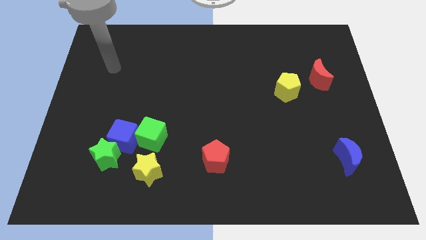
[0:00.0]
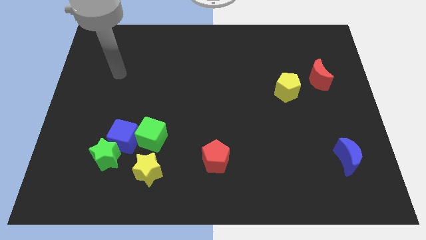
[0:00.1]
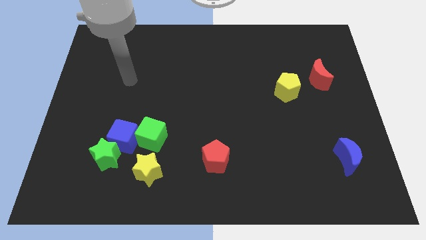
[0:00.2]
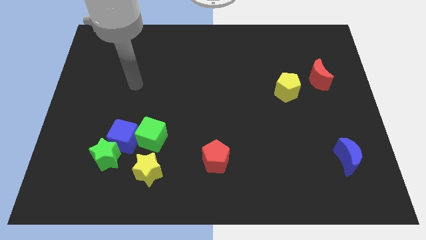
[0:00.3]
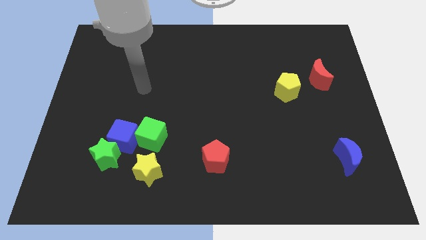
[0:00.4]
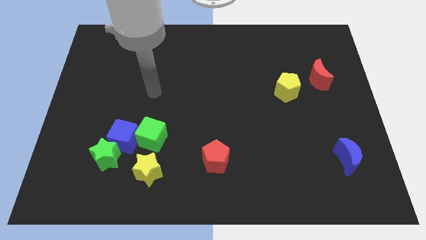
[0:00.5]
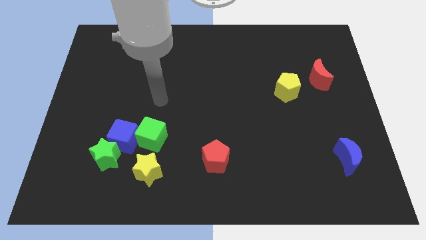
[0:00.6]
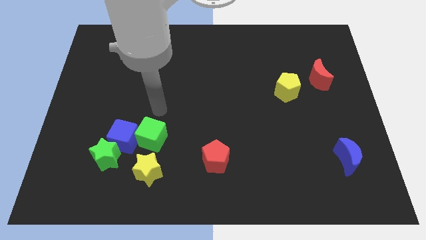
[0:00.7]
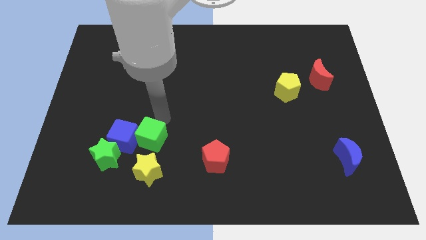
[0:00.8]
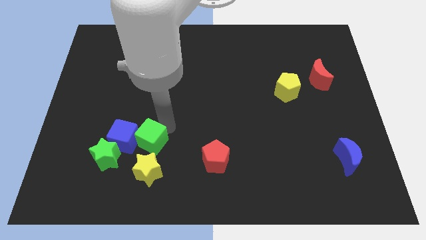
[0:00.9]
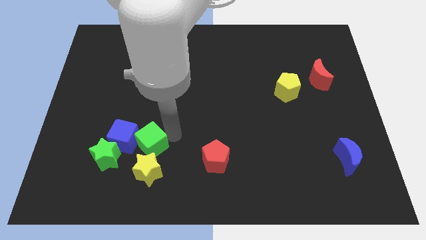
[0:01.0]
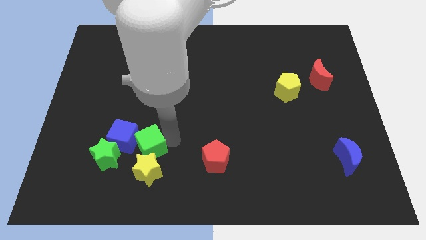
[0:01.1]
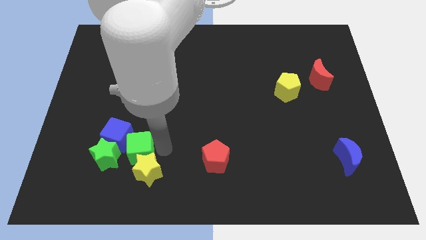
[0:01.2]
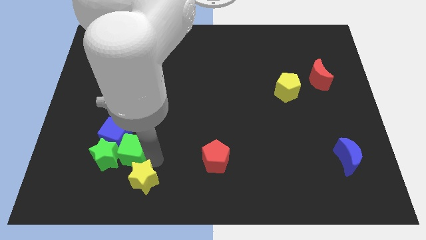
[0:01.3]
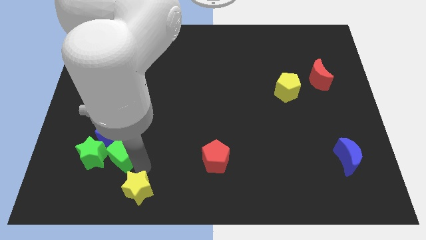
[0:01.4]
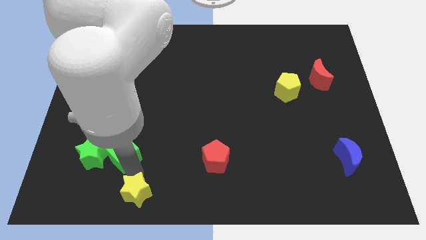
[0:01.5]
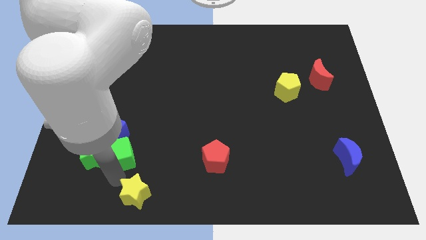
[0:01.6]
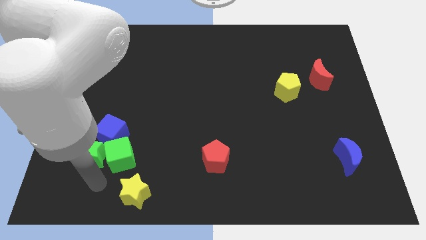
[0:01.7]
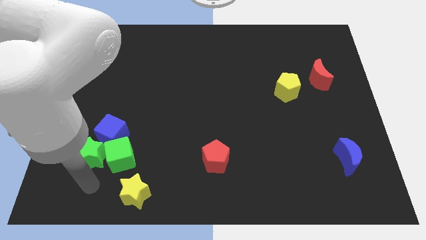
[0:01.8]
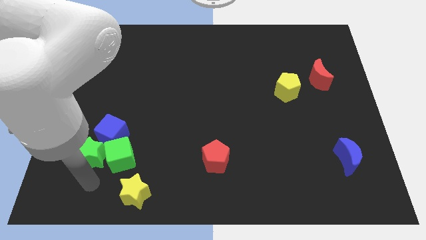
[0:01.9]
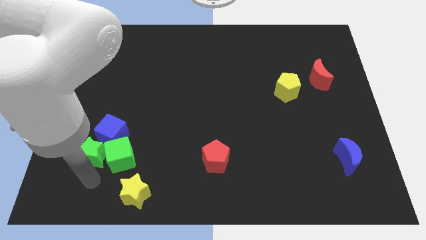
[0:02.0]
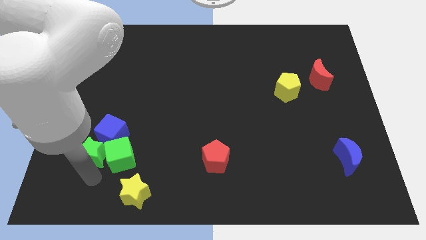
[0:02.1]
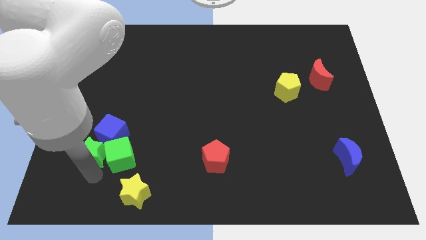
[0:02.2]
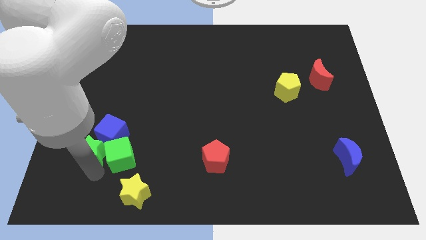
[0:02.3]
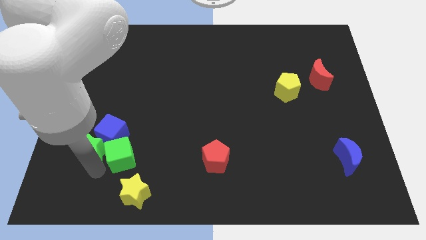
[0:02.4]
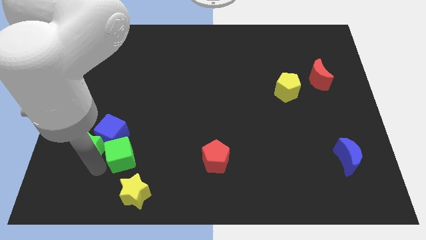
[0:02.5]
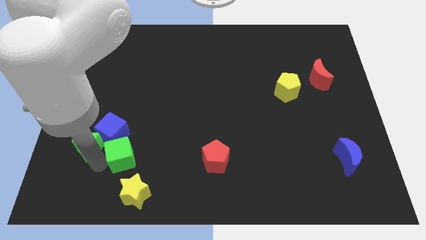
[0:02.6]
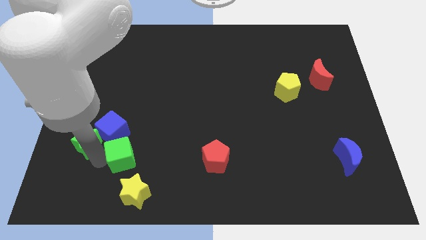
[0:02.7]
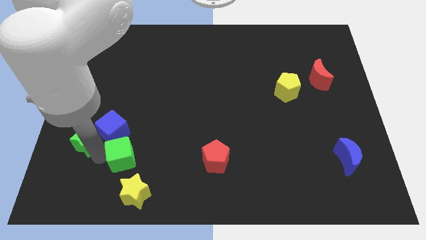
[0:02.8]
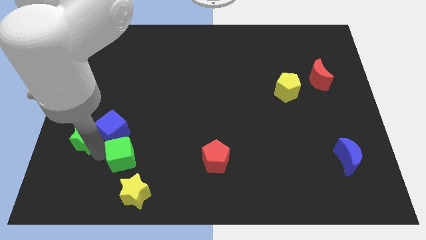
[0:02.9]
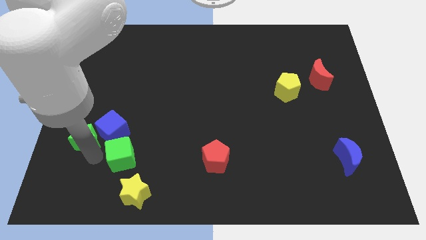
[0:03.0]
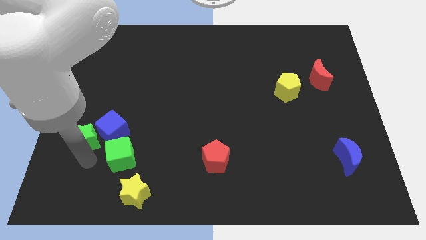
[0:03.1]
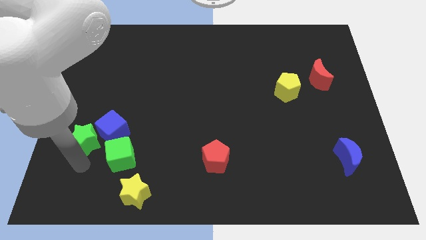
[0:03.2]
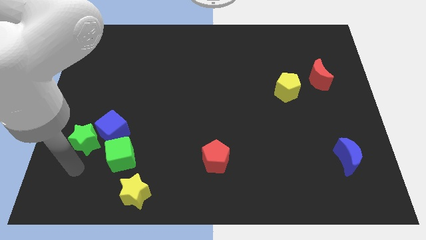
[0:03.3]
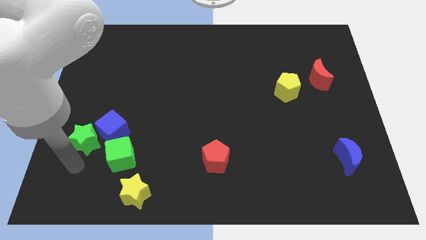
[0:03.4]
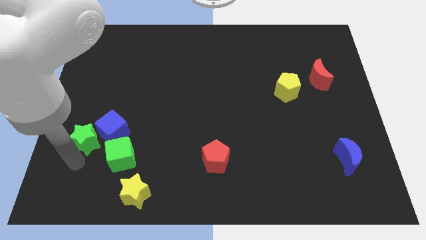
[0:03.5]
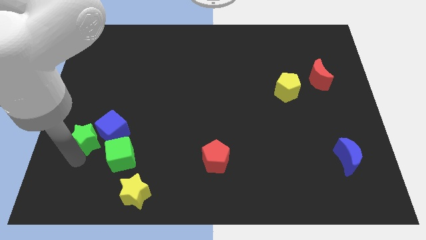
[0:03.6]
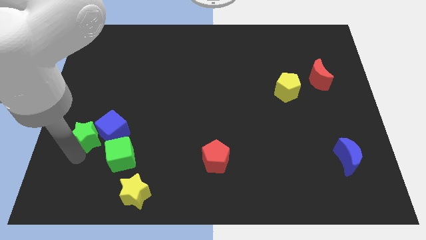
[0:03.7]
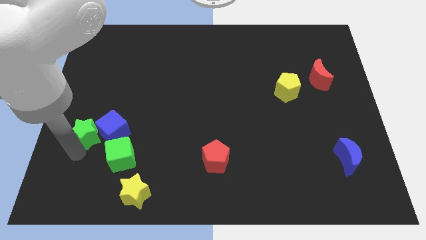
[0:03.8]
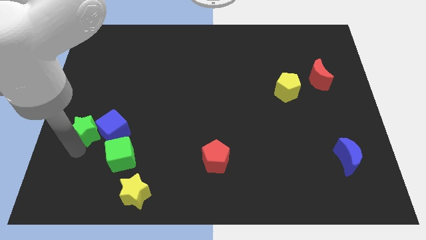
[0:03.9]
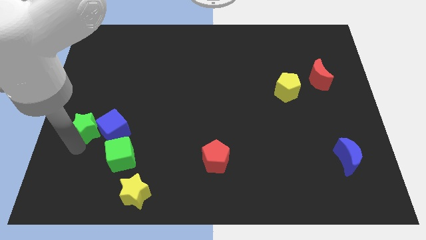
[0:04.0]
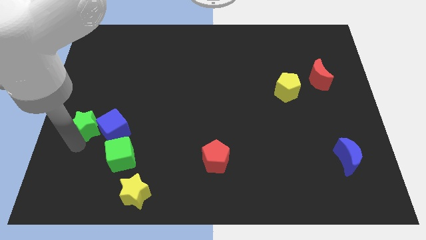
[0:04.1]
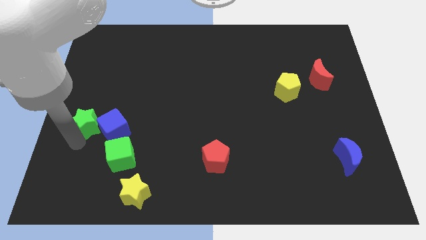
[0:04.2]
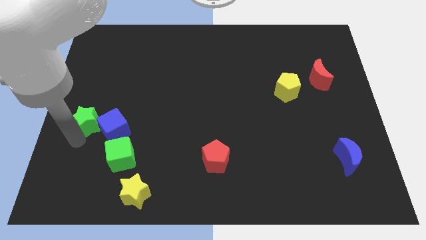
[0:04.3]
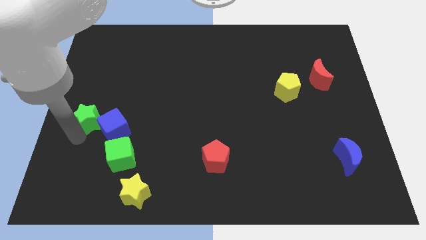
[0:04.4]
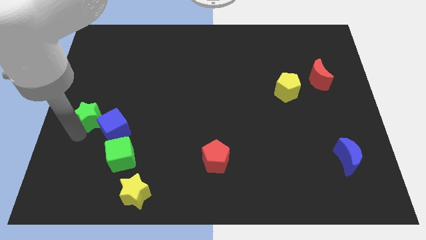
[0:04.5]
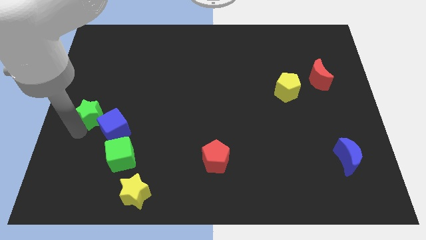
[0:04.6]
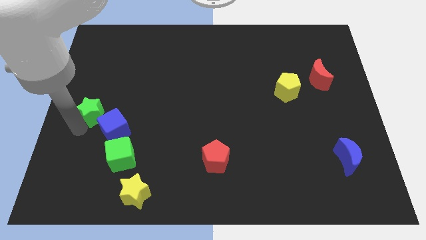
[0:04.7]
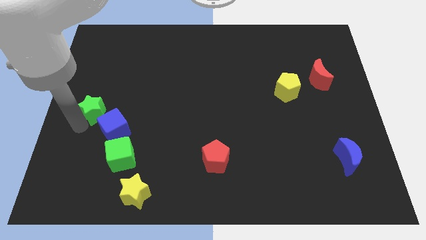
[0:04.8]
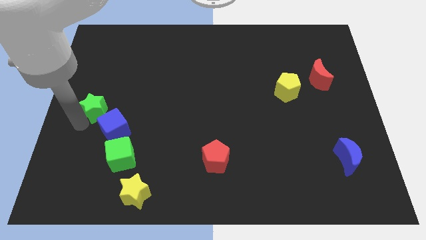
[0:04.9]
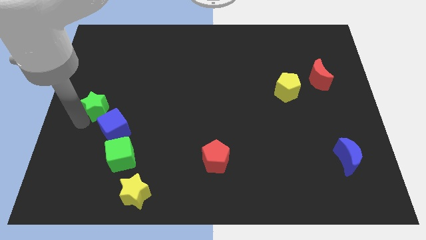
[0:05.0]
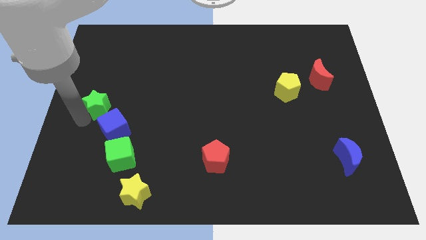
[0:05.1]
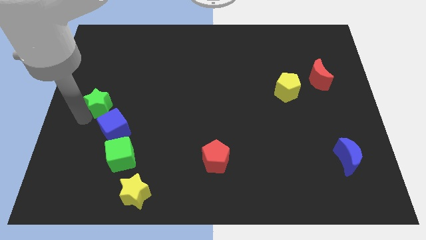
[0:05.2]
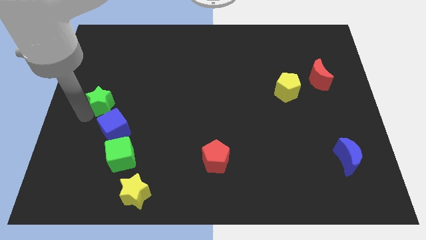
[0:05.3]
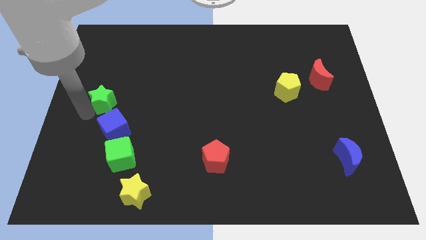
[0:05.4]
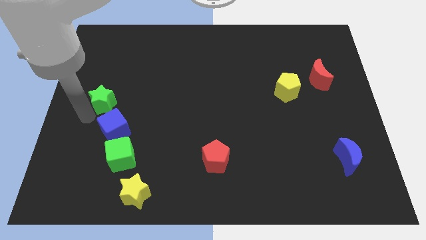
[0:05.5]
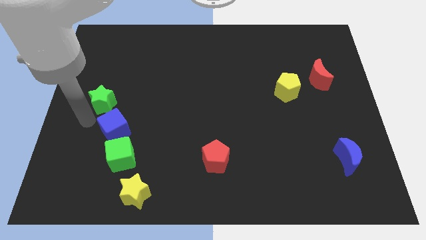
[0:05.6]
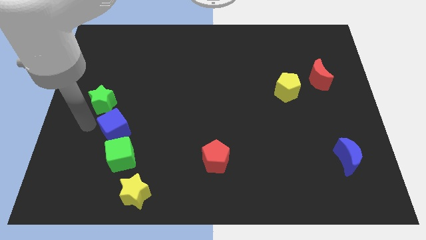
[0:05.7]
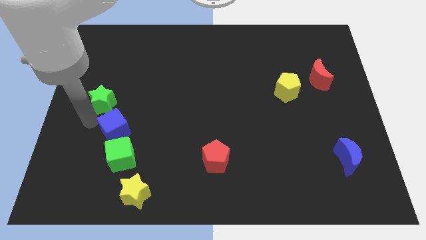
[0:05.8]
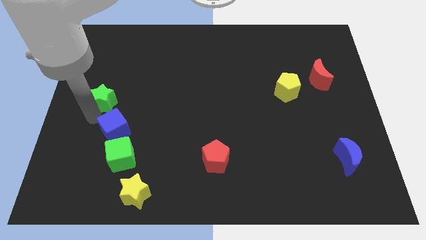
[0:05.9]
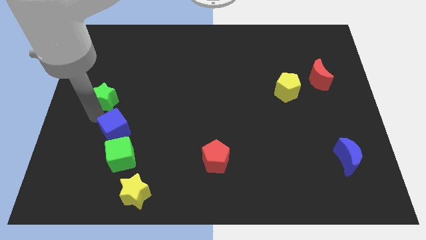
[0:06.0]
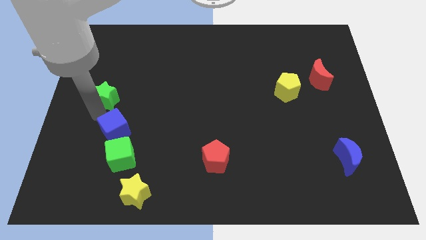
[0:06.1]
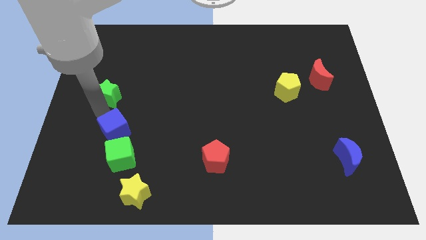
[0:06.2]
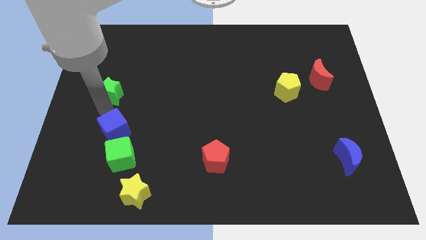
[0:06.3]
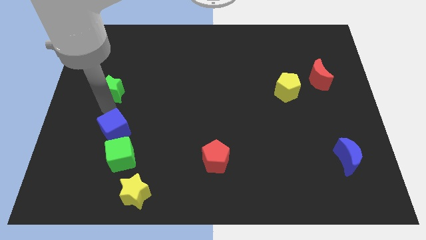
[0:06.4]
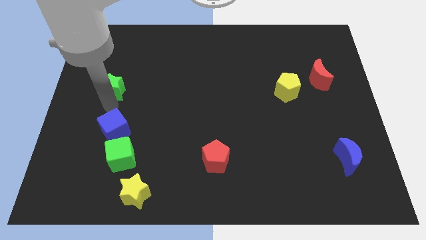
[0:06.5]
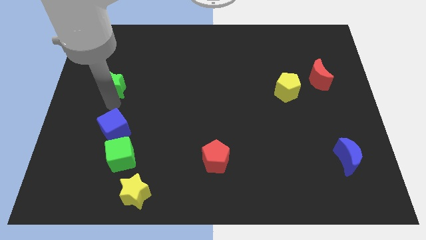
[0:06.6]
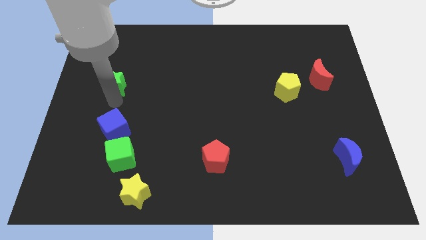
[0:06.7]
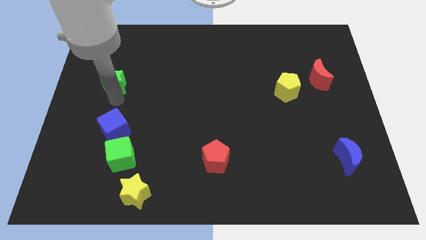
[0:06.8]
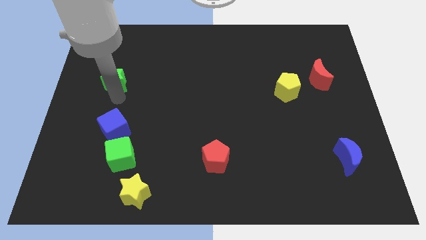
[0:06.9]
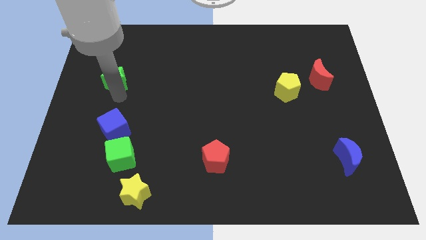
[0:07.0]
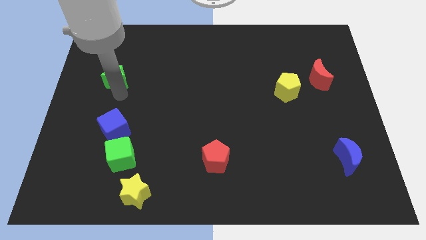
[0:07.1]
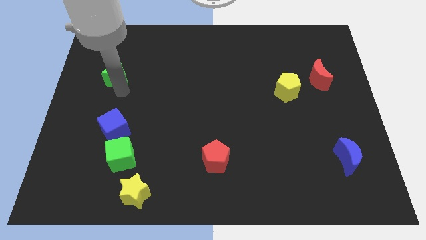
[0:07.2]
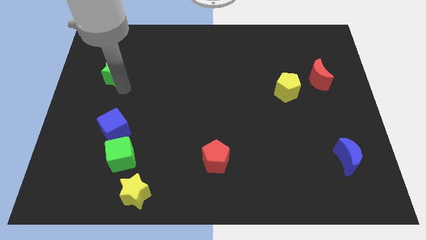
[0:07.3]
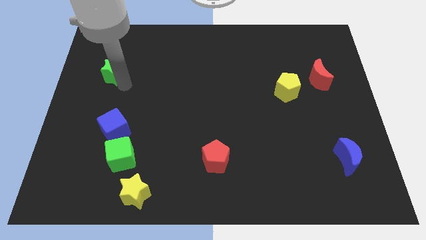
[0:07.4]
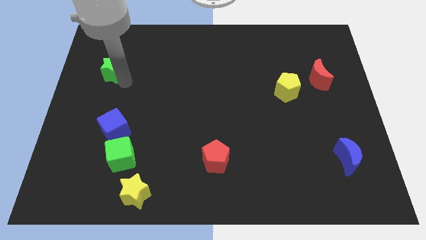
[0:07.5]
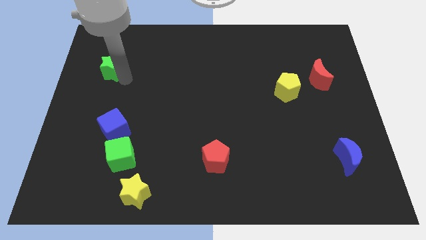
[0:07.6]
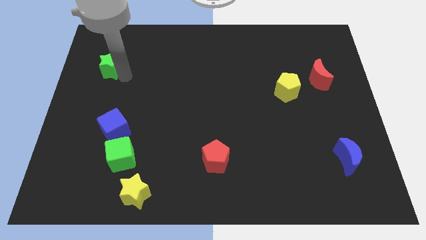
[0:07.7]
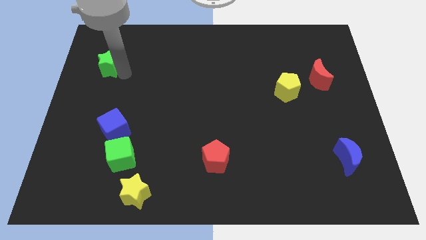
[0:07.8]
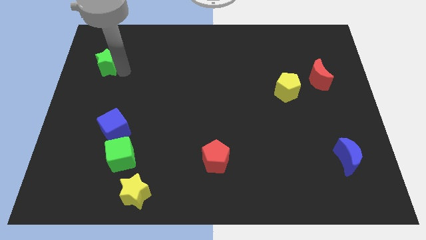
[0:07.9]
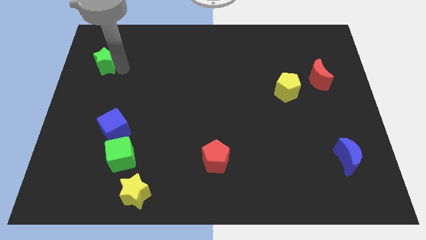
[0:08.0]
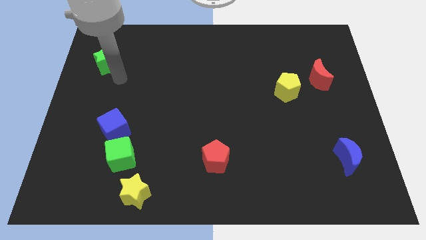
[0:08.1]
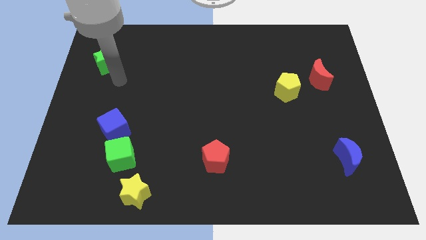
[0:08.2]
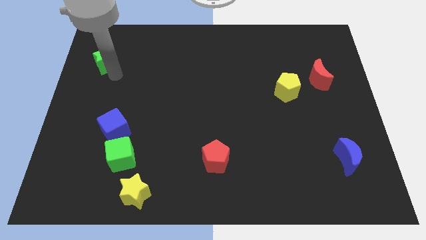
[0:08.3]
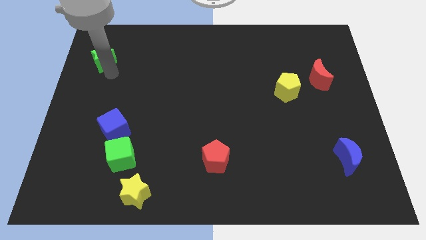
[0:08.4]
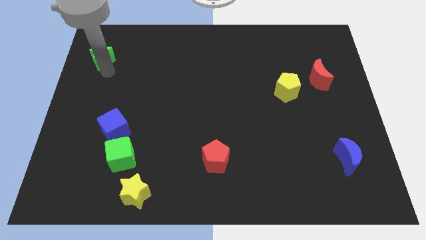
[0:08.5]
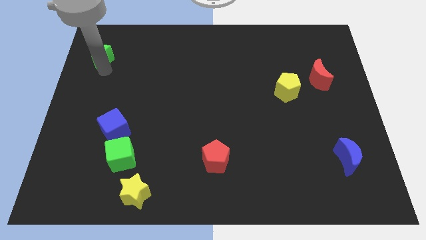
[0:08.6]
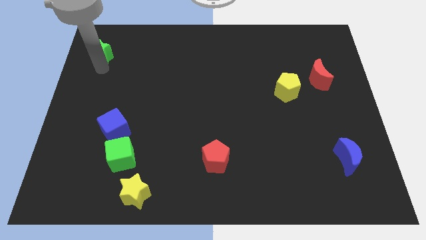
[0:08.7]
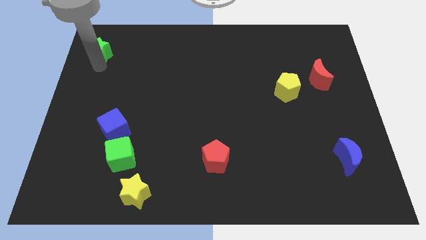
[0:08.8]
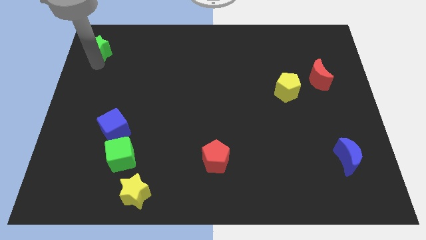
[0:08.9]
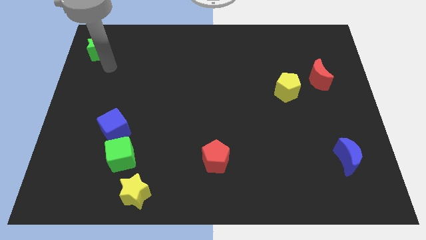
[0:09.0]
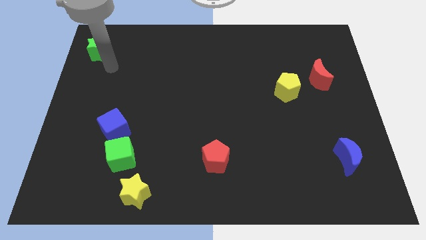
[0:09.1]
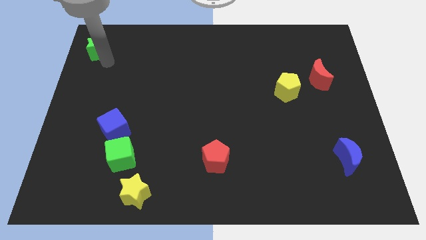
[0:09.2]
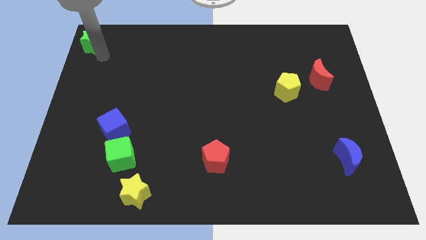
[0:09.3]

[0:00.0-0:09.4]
move the green star to the top left
